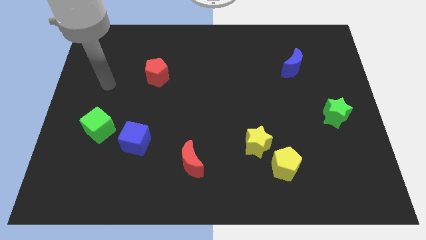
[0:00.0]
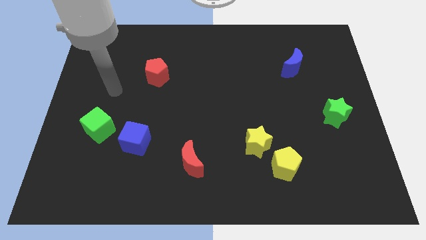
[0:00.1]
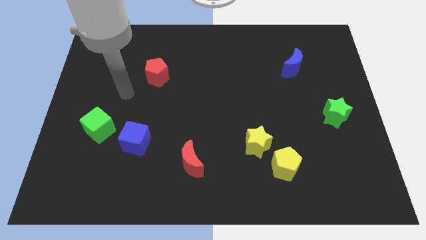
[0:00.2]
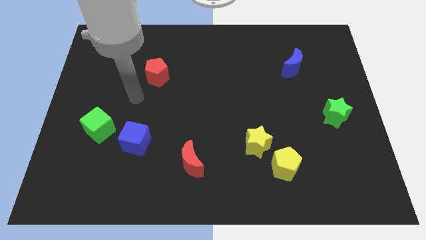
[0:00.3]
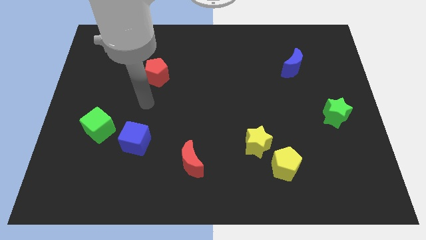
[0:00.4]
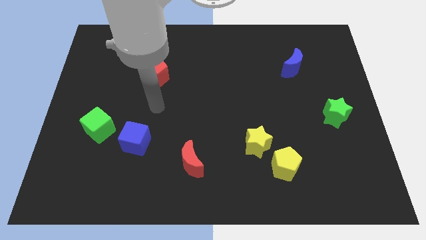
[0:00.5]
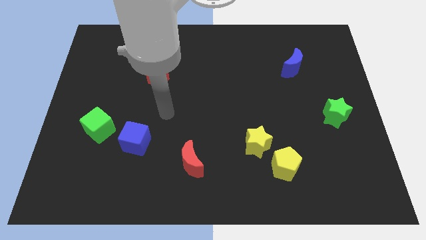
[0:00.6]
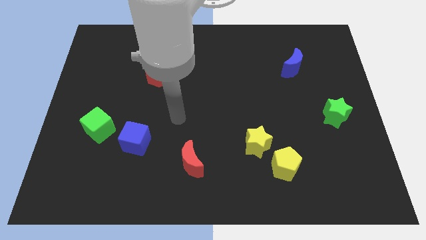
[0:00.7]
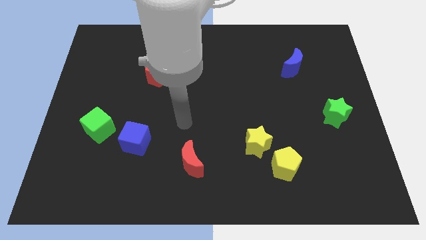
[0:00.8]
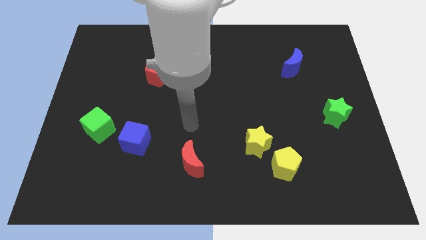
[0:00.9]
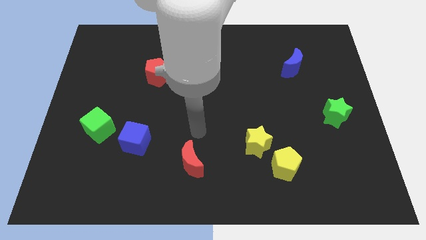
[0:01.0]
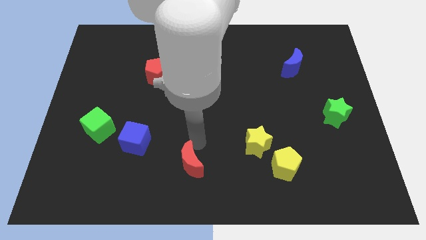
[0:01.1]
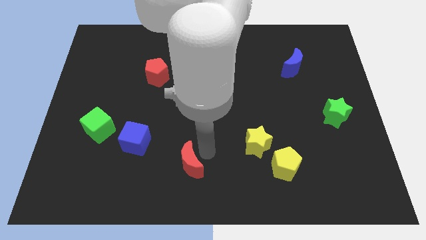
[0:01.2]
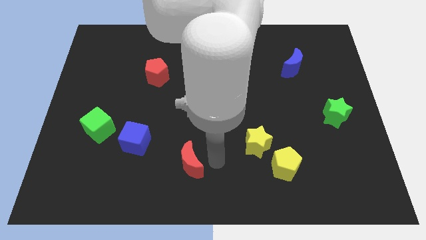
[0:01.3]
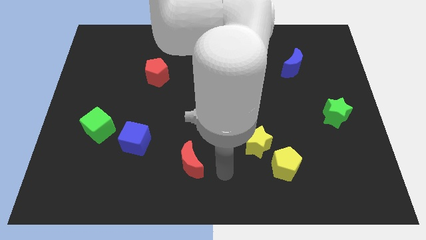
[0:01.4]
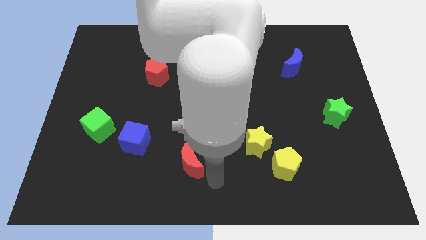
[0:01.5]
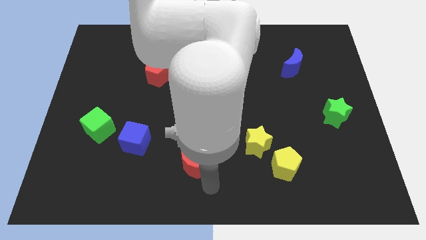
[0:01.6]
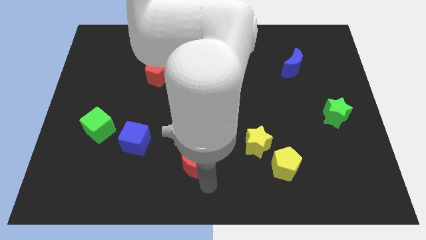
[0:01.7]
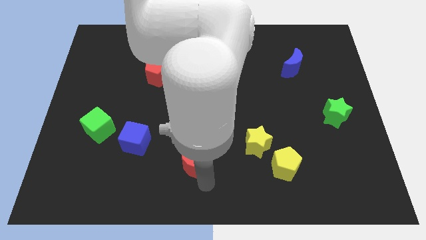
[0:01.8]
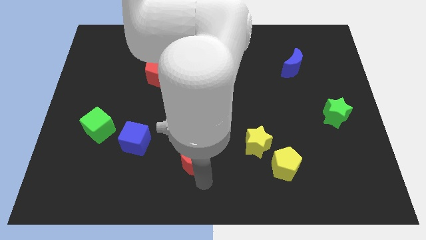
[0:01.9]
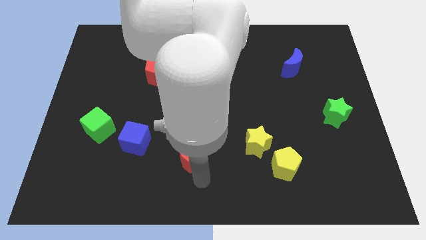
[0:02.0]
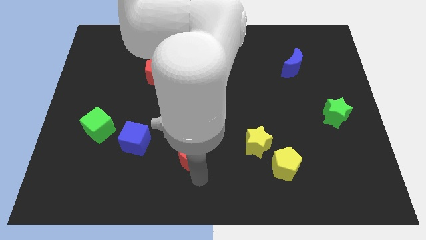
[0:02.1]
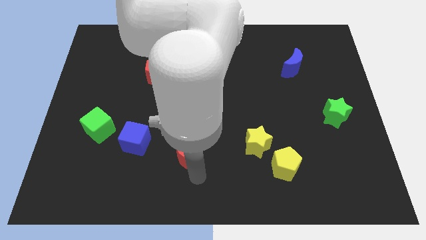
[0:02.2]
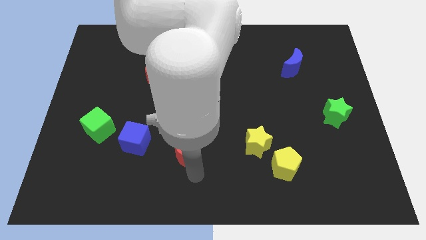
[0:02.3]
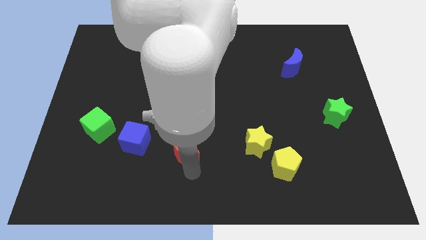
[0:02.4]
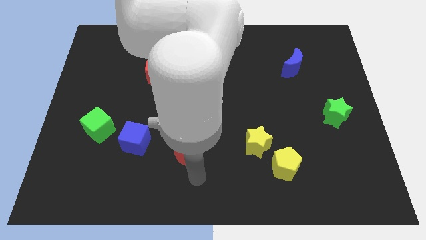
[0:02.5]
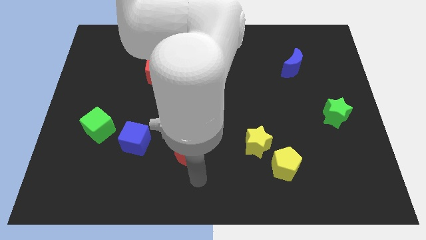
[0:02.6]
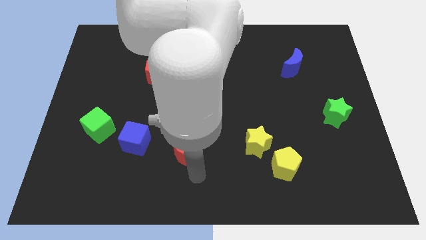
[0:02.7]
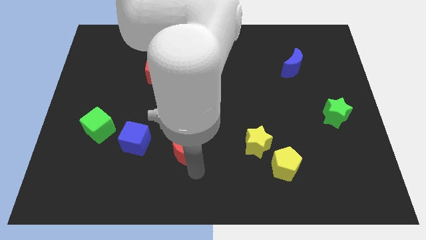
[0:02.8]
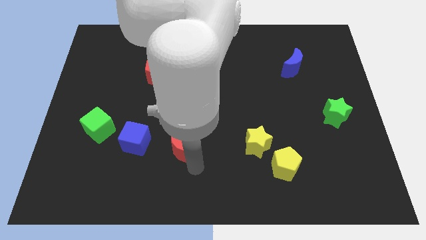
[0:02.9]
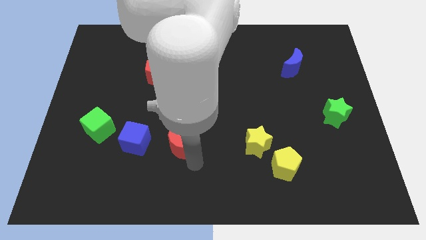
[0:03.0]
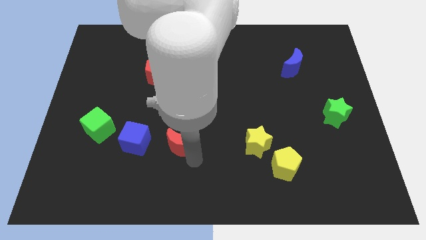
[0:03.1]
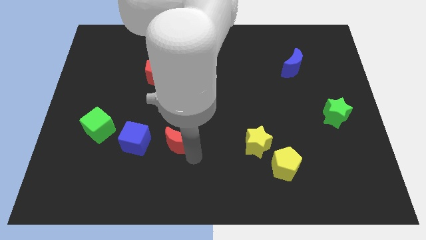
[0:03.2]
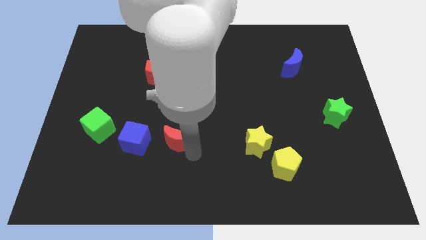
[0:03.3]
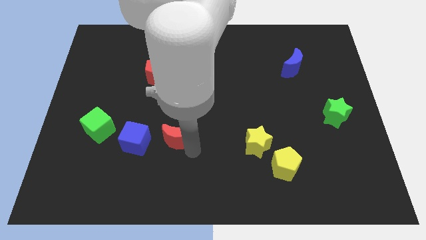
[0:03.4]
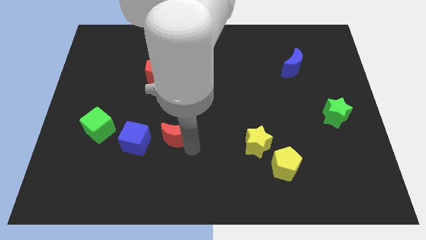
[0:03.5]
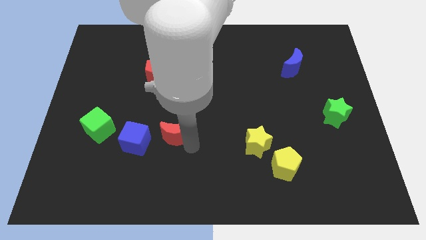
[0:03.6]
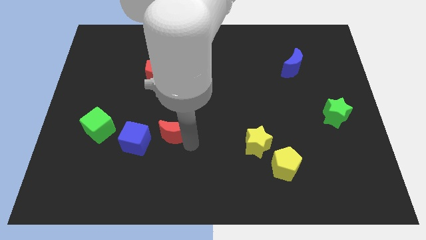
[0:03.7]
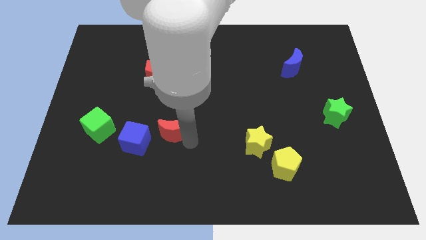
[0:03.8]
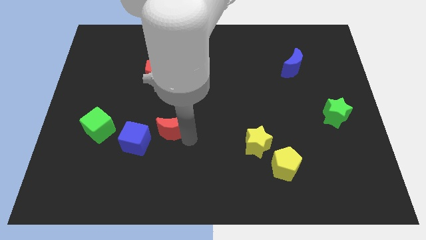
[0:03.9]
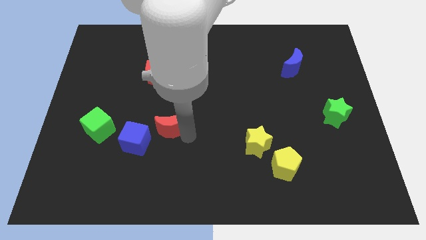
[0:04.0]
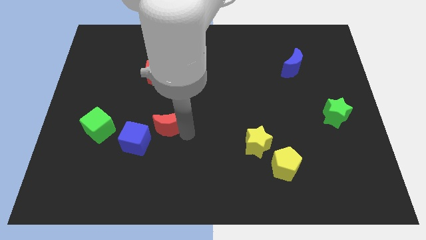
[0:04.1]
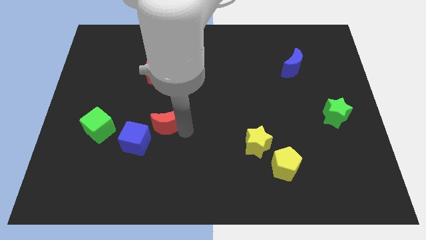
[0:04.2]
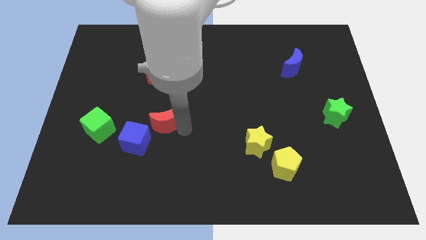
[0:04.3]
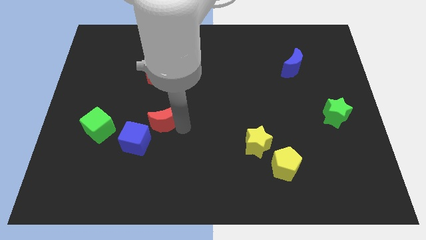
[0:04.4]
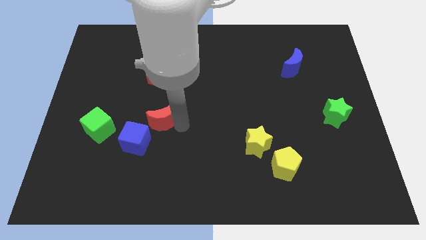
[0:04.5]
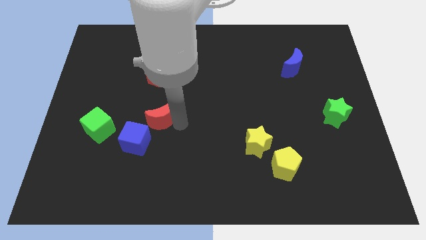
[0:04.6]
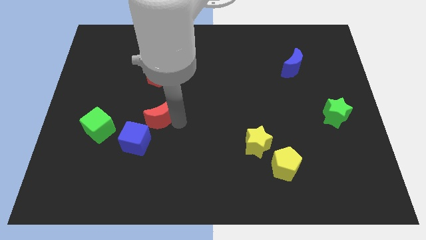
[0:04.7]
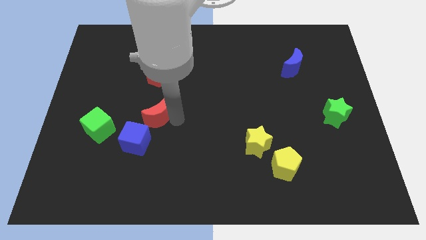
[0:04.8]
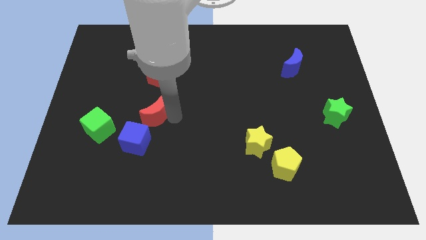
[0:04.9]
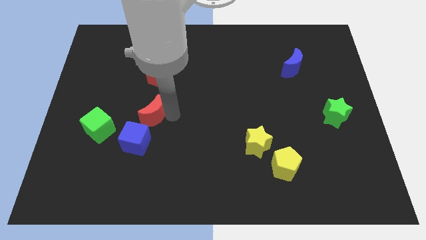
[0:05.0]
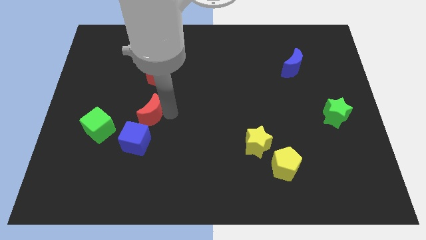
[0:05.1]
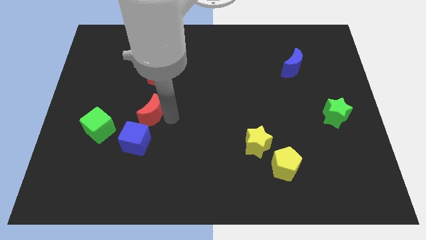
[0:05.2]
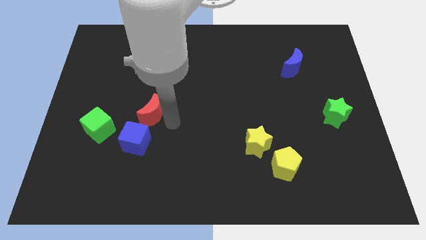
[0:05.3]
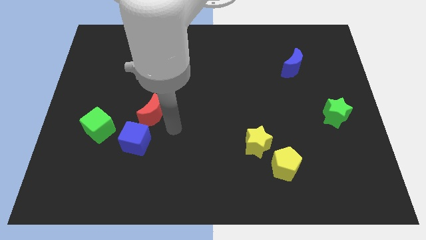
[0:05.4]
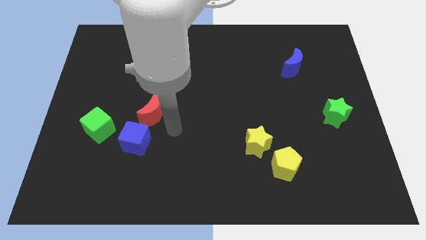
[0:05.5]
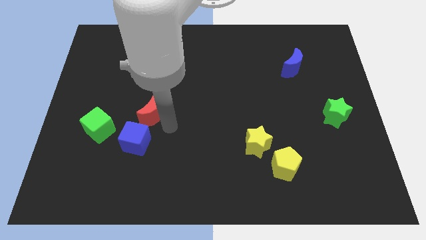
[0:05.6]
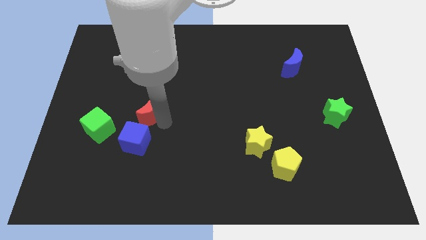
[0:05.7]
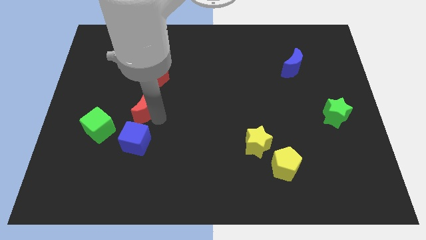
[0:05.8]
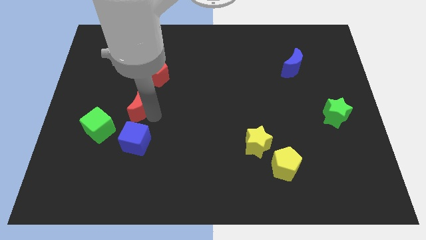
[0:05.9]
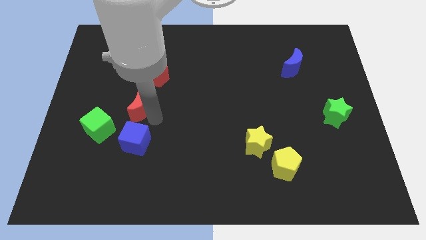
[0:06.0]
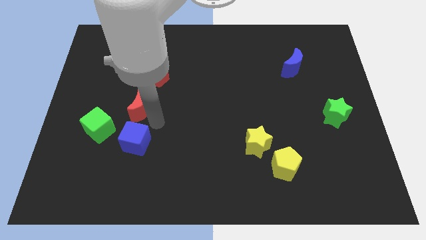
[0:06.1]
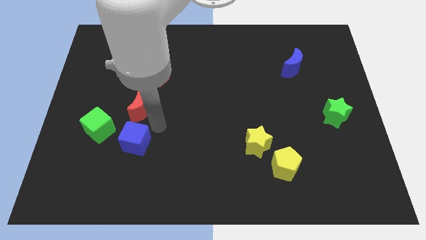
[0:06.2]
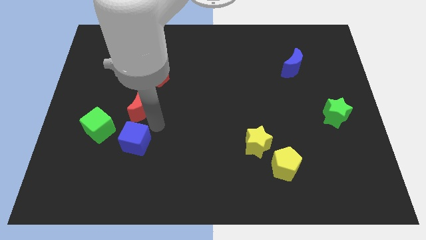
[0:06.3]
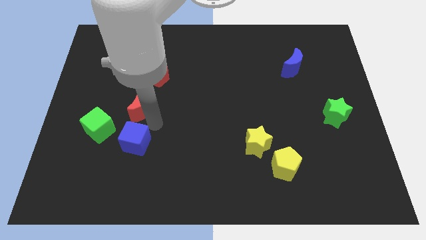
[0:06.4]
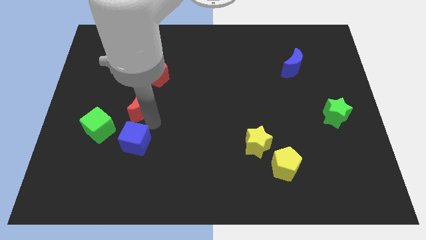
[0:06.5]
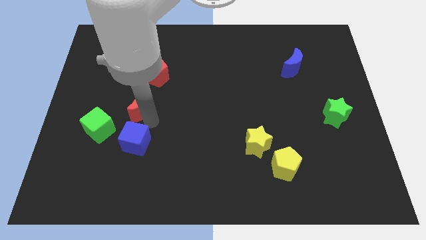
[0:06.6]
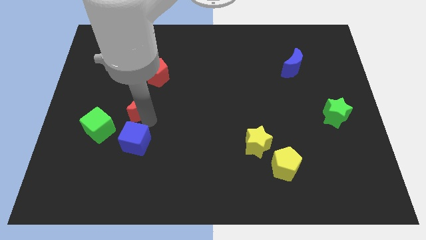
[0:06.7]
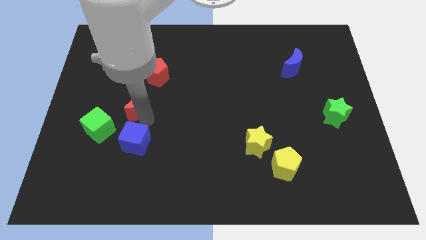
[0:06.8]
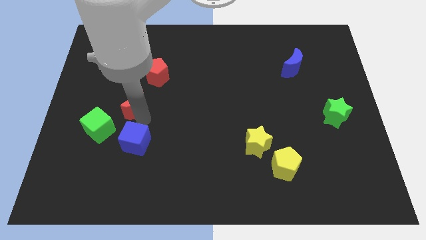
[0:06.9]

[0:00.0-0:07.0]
slide the red moon upwards and left diagonally

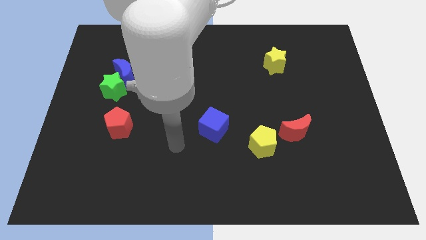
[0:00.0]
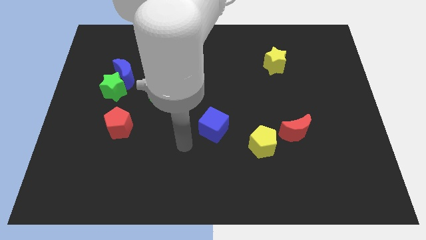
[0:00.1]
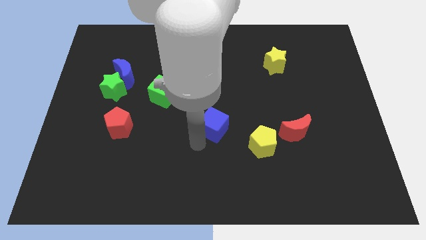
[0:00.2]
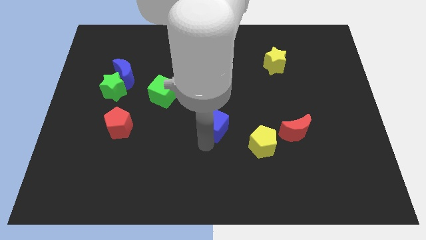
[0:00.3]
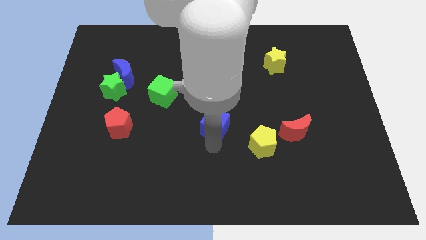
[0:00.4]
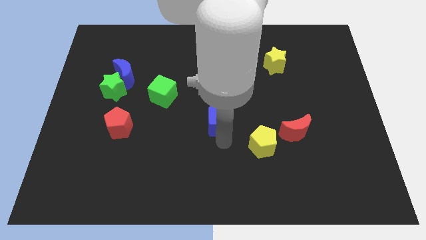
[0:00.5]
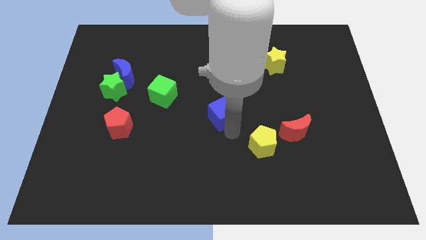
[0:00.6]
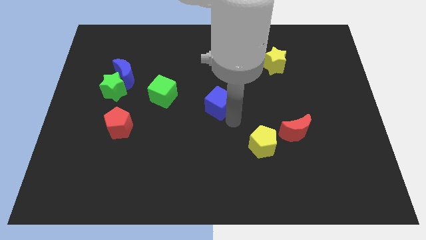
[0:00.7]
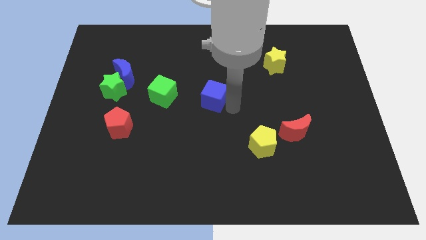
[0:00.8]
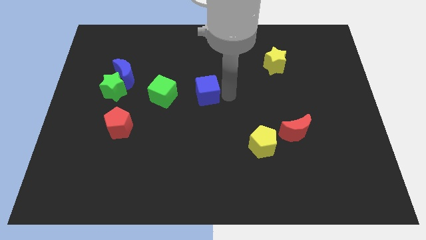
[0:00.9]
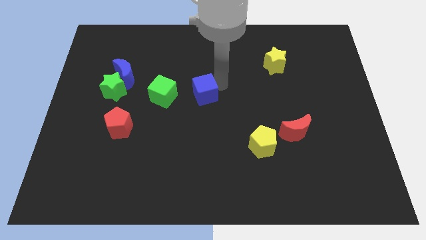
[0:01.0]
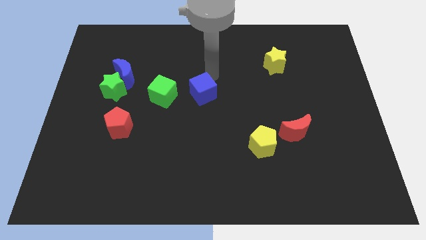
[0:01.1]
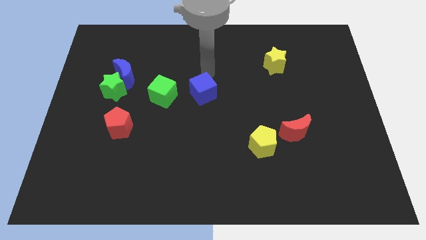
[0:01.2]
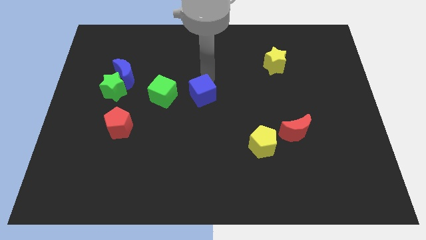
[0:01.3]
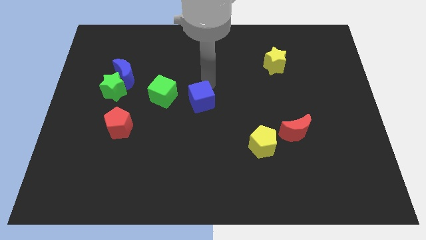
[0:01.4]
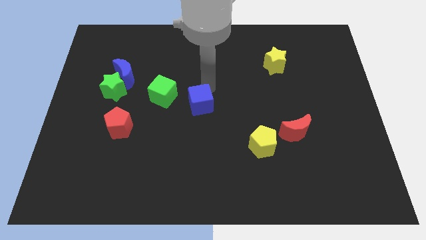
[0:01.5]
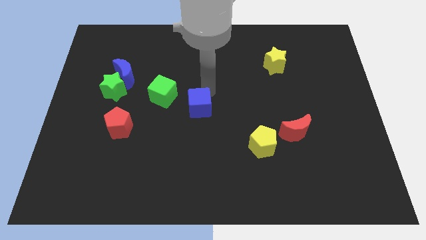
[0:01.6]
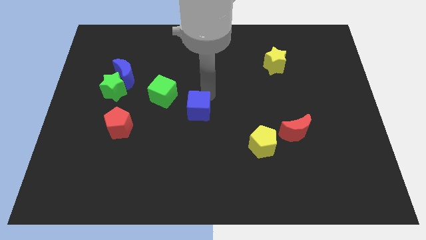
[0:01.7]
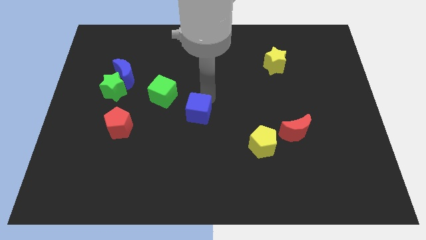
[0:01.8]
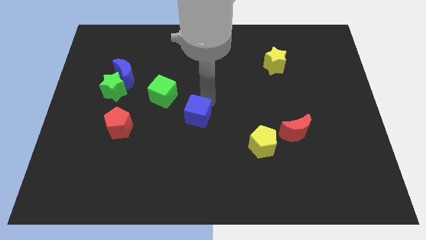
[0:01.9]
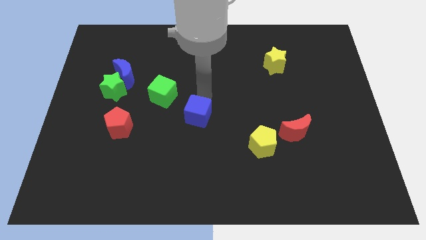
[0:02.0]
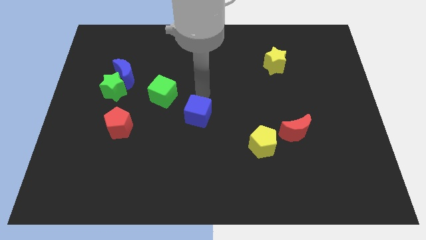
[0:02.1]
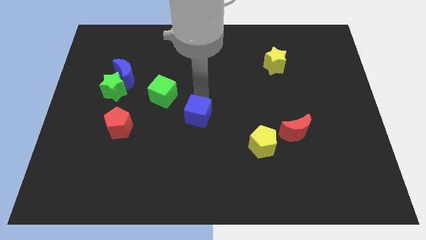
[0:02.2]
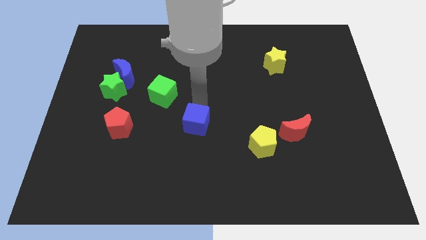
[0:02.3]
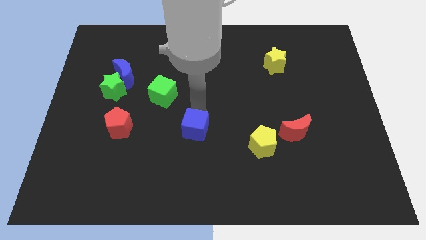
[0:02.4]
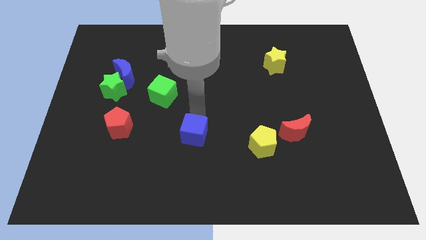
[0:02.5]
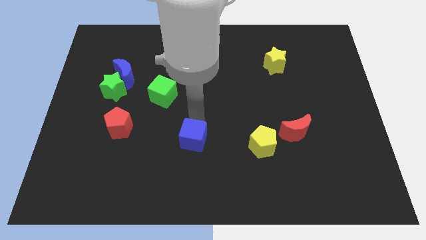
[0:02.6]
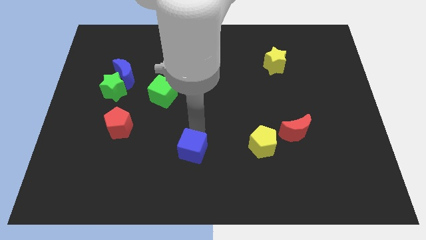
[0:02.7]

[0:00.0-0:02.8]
push the blue cube slightly diagonally down and to the left
